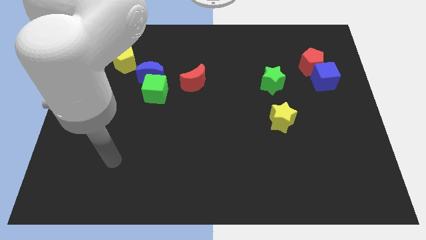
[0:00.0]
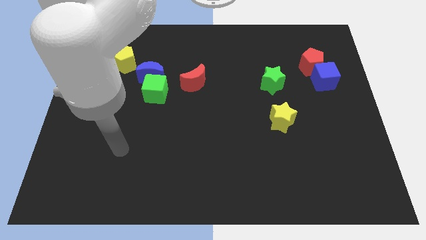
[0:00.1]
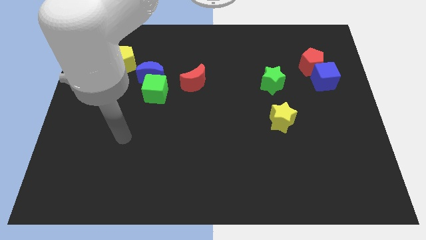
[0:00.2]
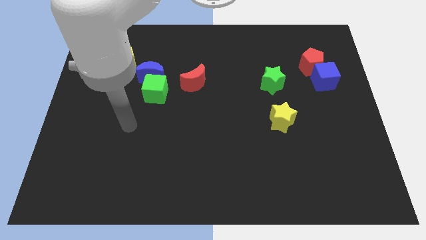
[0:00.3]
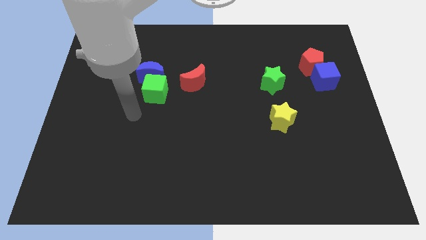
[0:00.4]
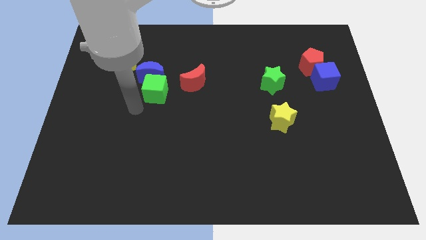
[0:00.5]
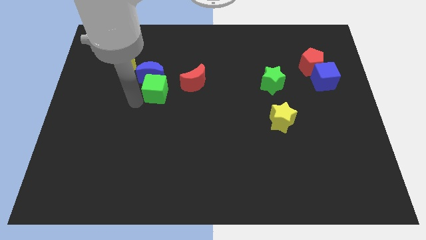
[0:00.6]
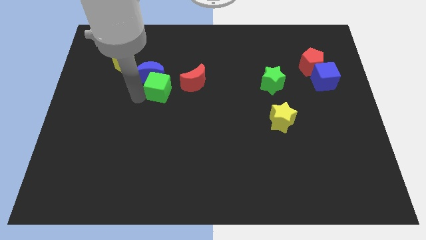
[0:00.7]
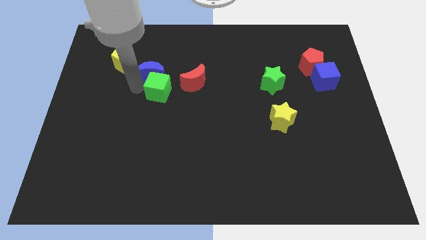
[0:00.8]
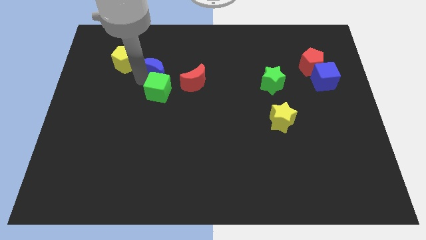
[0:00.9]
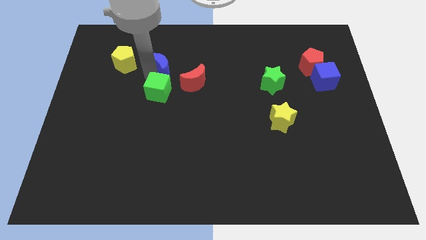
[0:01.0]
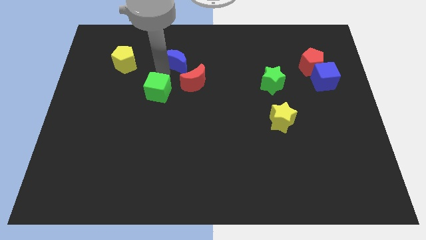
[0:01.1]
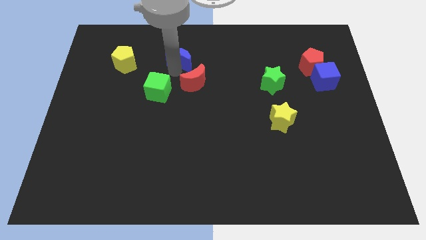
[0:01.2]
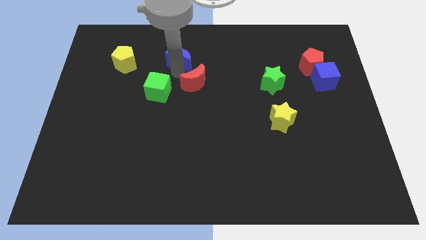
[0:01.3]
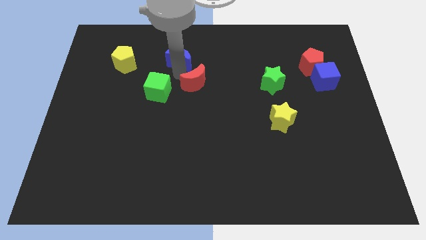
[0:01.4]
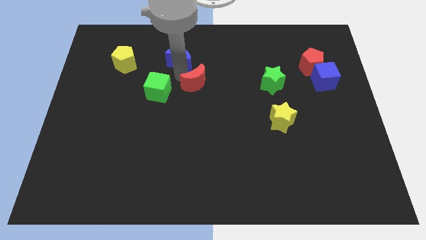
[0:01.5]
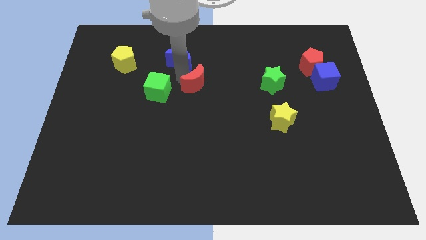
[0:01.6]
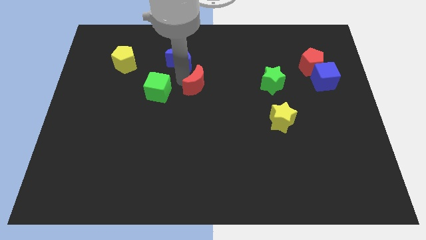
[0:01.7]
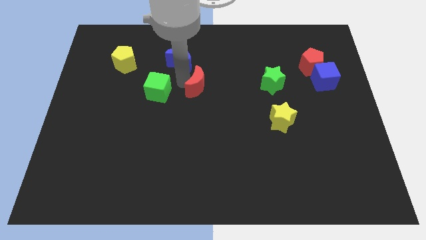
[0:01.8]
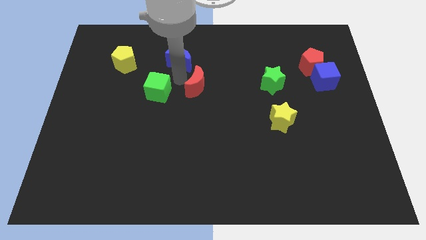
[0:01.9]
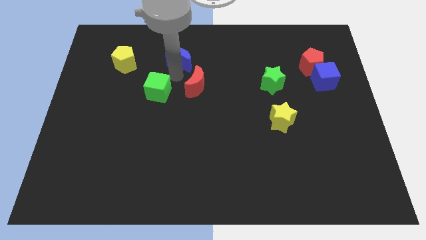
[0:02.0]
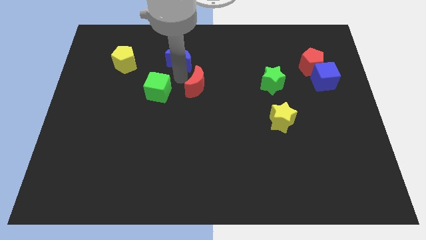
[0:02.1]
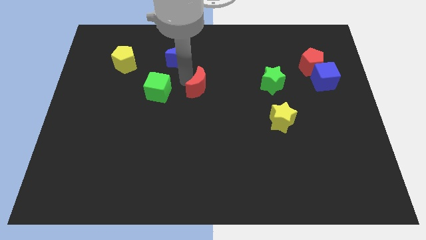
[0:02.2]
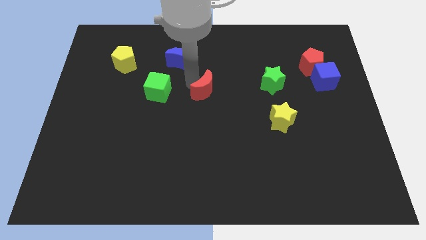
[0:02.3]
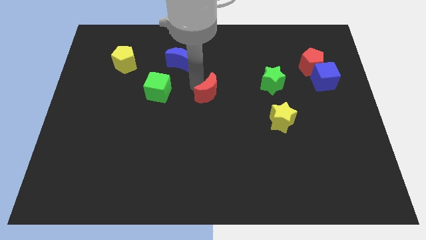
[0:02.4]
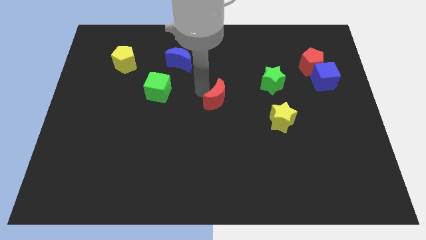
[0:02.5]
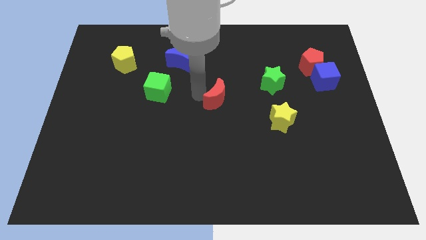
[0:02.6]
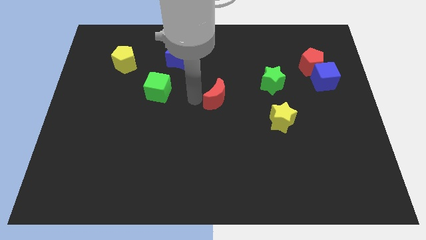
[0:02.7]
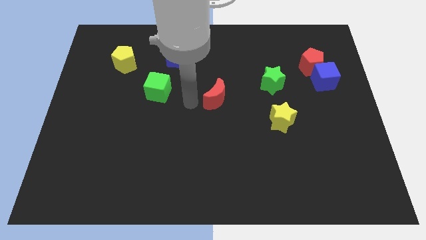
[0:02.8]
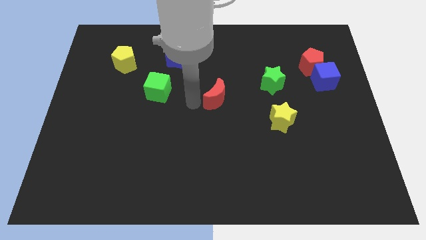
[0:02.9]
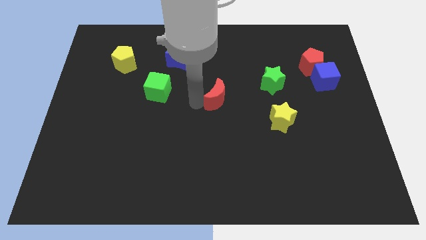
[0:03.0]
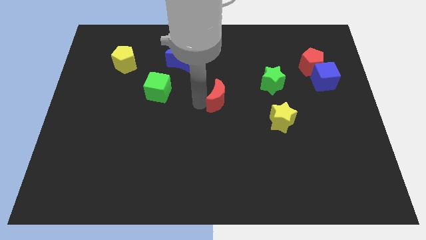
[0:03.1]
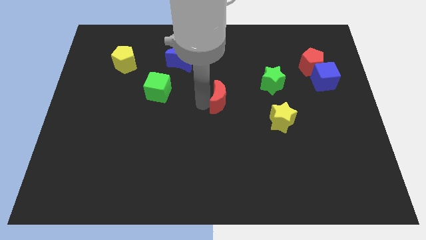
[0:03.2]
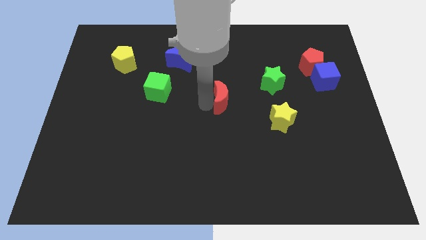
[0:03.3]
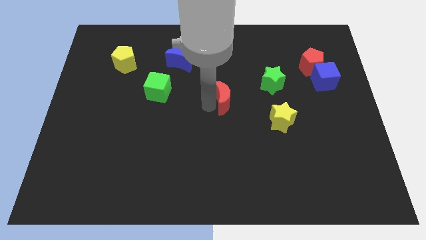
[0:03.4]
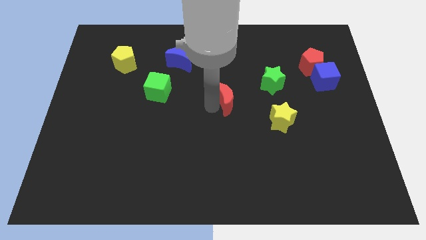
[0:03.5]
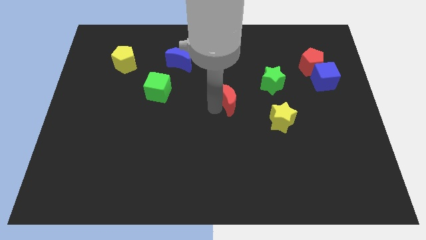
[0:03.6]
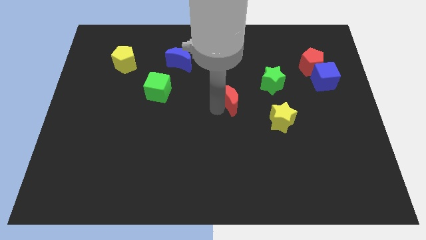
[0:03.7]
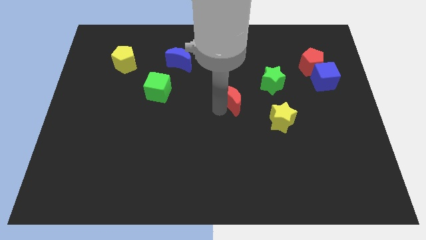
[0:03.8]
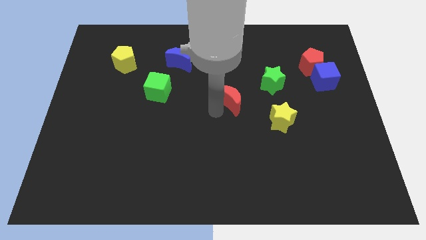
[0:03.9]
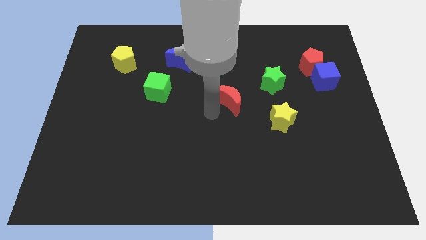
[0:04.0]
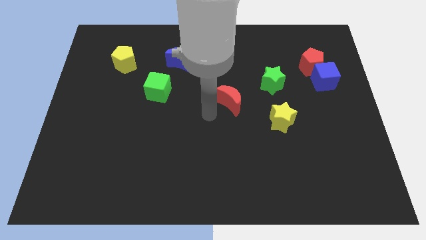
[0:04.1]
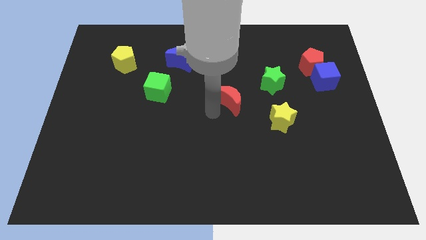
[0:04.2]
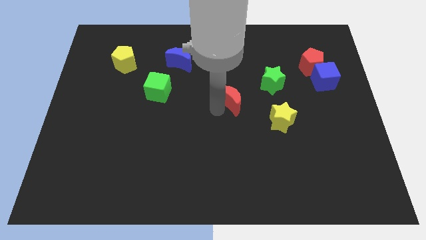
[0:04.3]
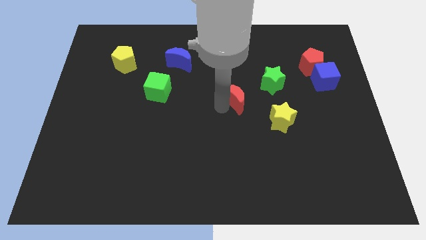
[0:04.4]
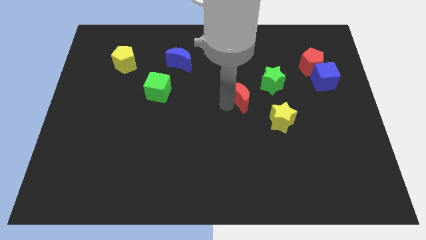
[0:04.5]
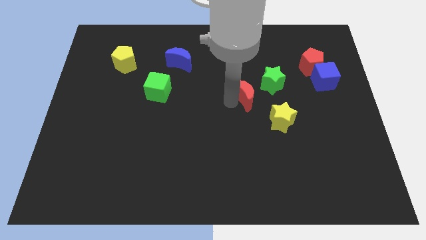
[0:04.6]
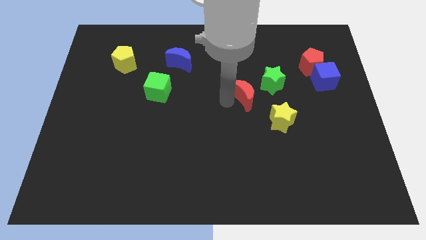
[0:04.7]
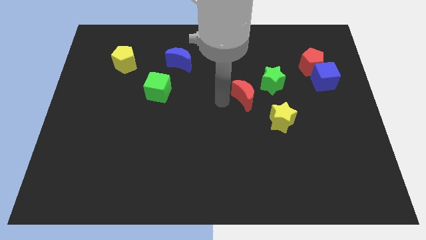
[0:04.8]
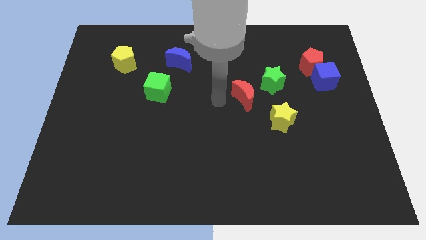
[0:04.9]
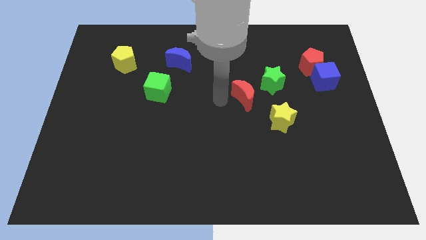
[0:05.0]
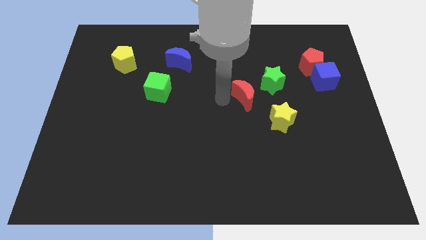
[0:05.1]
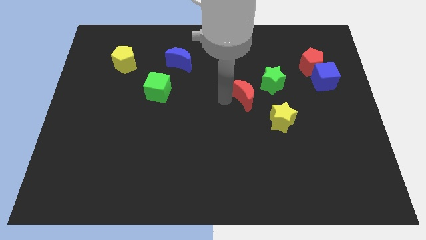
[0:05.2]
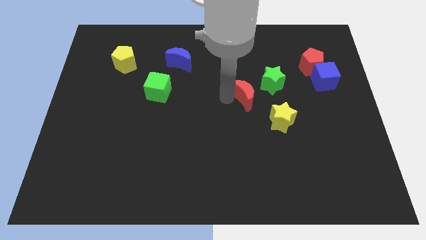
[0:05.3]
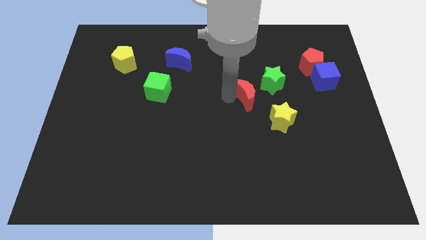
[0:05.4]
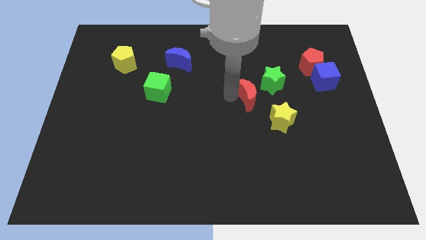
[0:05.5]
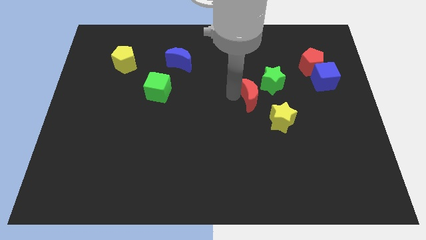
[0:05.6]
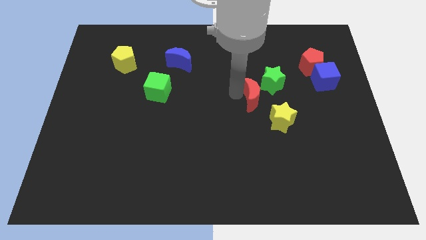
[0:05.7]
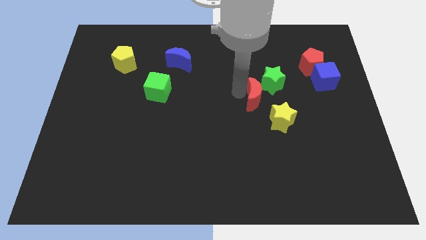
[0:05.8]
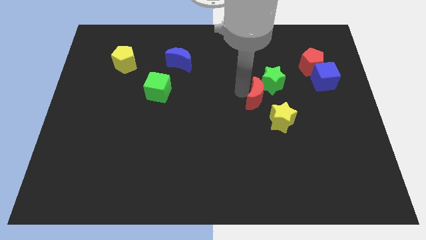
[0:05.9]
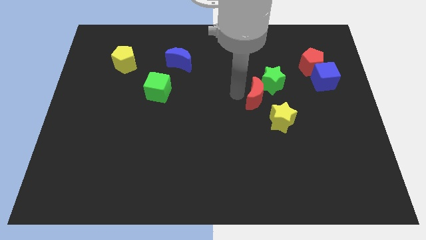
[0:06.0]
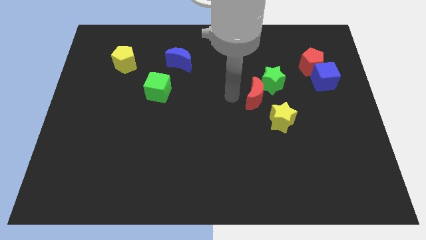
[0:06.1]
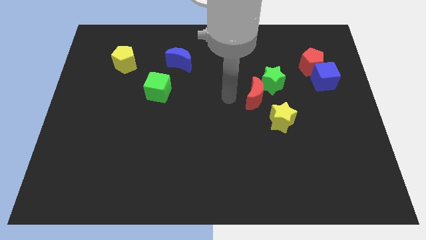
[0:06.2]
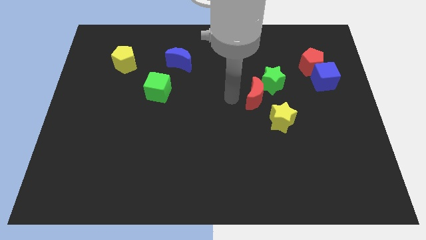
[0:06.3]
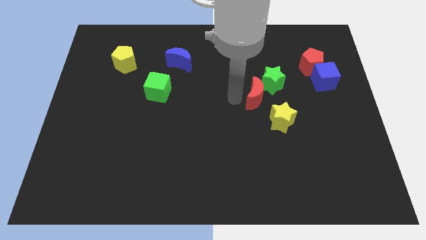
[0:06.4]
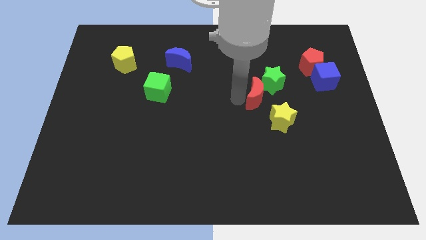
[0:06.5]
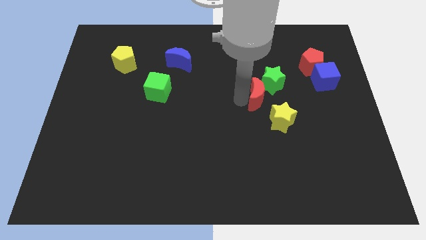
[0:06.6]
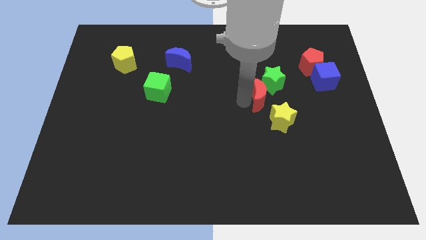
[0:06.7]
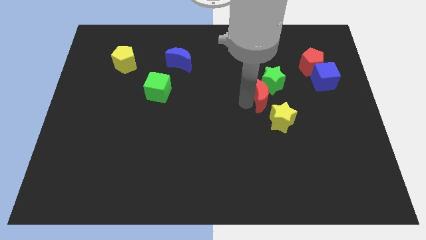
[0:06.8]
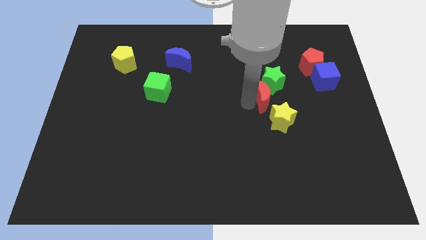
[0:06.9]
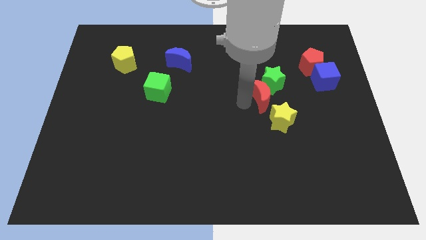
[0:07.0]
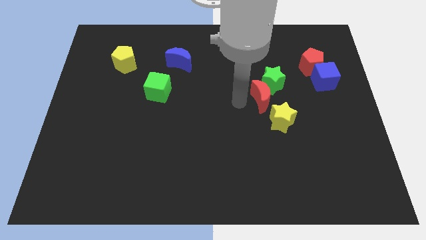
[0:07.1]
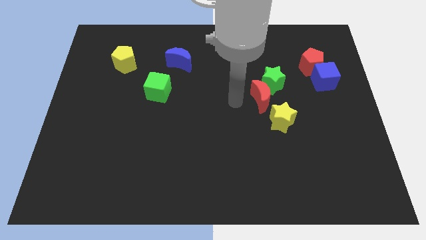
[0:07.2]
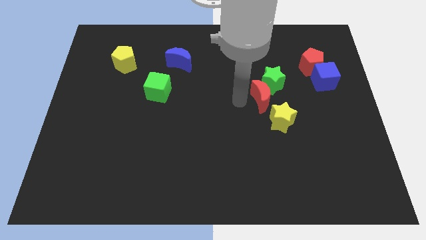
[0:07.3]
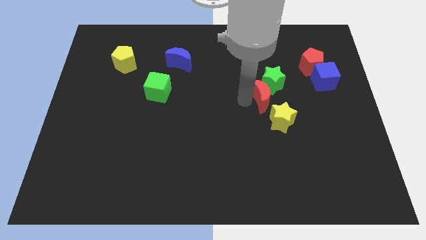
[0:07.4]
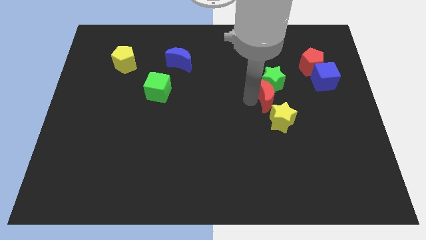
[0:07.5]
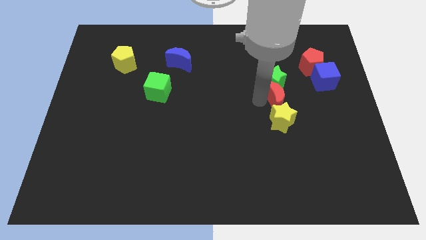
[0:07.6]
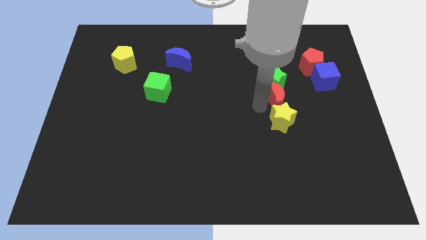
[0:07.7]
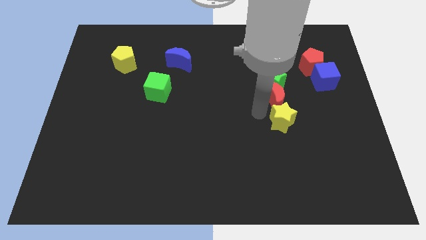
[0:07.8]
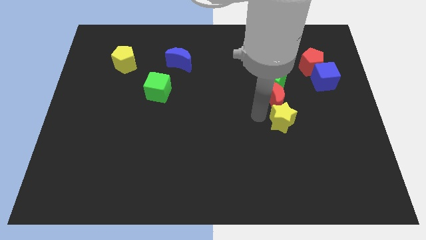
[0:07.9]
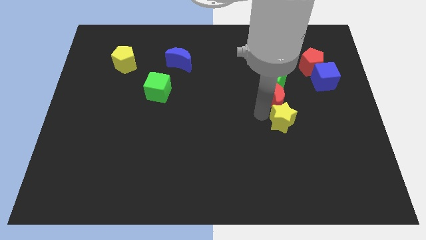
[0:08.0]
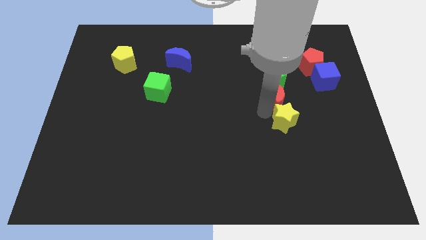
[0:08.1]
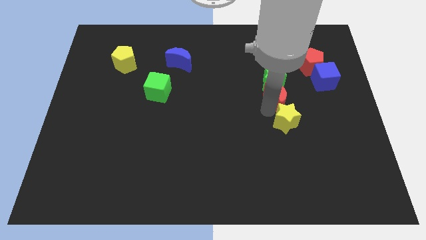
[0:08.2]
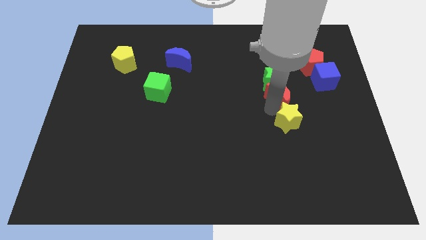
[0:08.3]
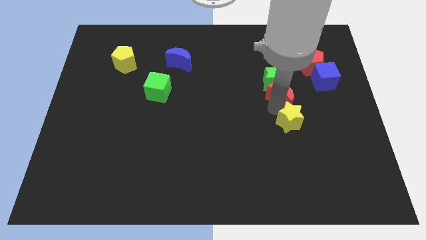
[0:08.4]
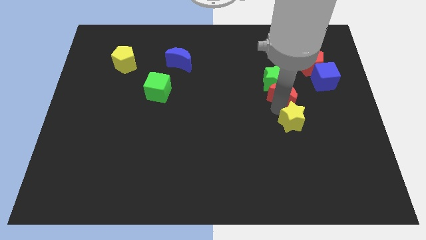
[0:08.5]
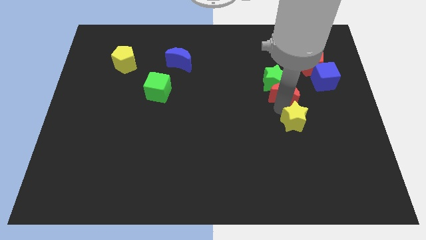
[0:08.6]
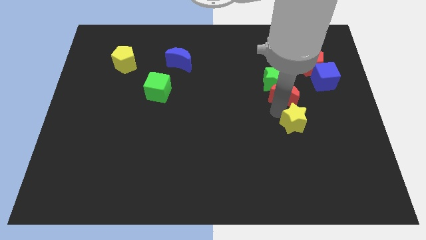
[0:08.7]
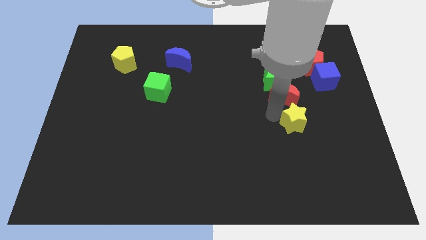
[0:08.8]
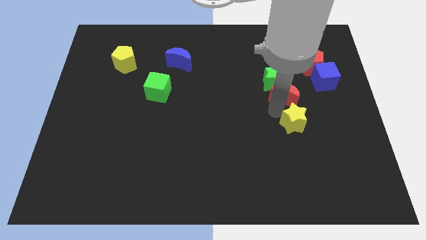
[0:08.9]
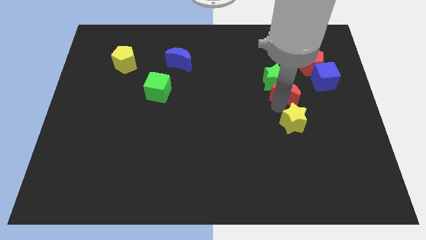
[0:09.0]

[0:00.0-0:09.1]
slide the red moon to the bottom left side of the red pentagon
